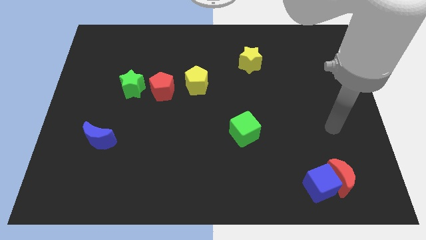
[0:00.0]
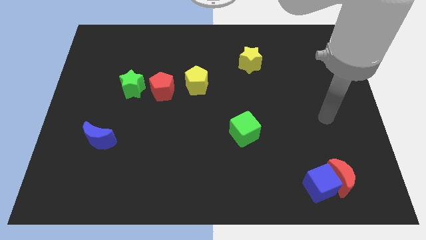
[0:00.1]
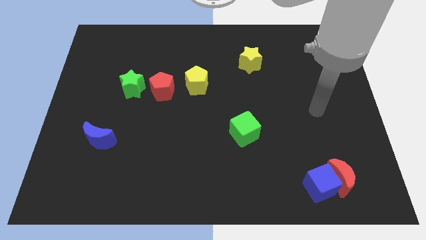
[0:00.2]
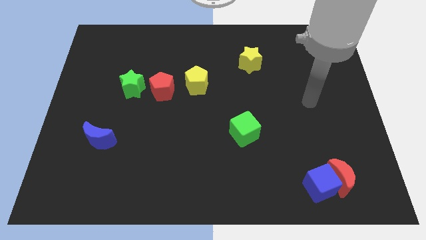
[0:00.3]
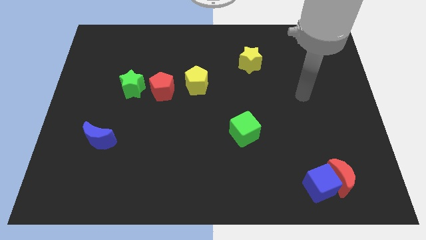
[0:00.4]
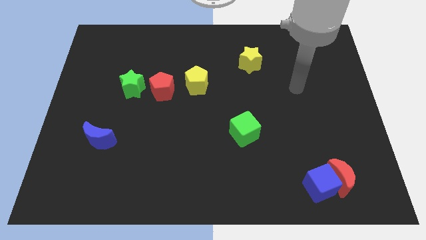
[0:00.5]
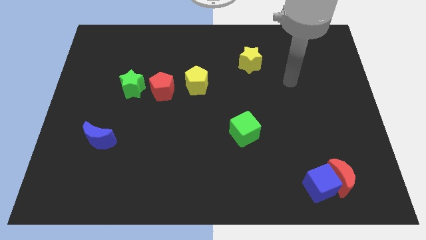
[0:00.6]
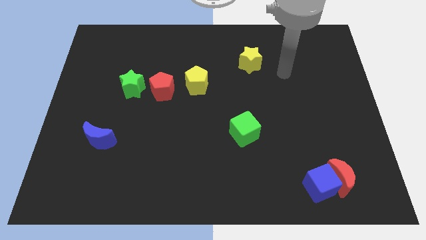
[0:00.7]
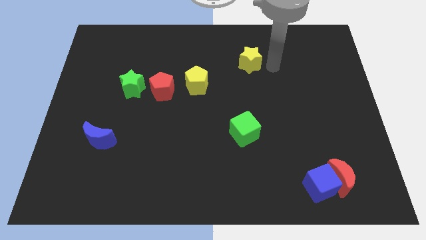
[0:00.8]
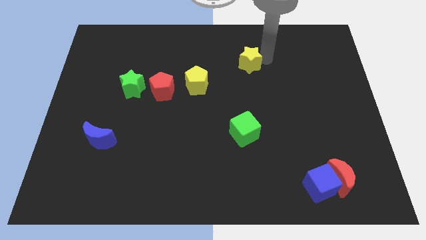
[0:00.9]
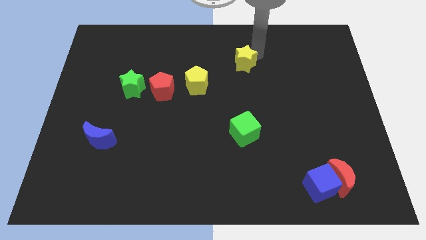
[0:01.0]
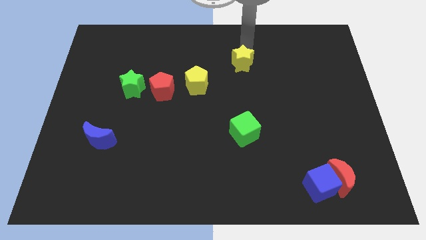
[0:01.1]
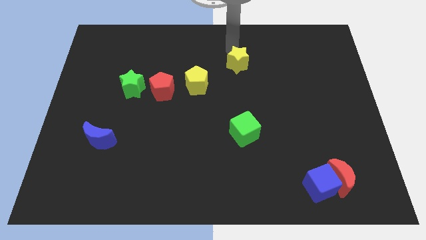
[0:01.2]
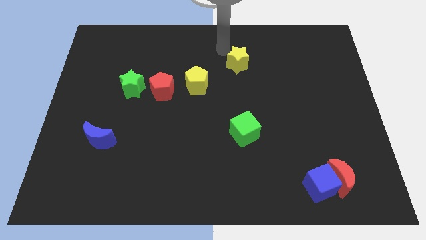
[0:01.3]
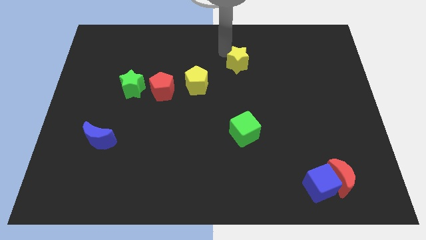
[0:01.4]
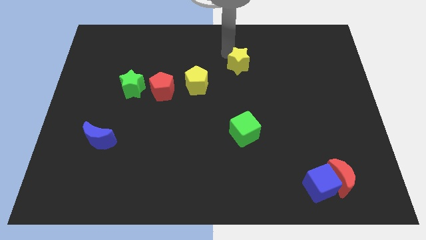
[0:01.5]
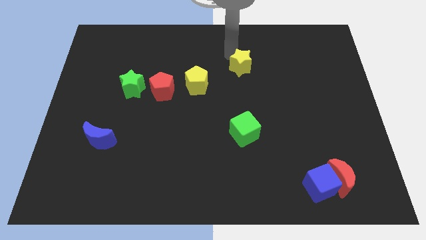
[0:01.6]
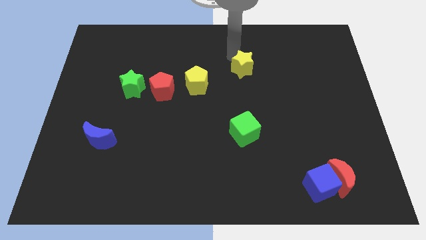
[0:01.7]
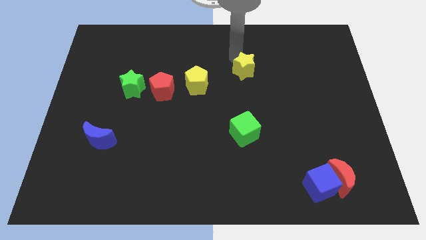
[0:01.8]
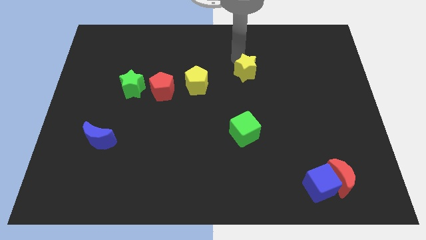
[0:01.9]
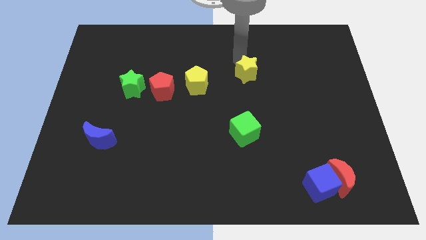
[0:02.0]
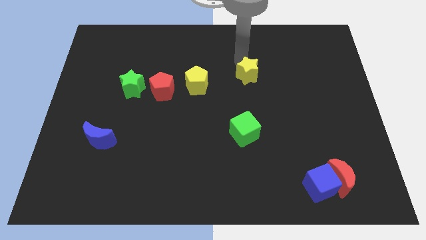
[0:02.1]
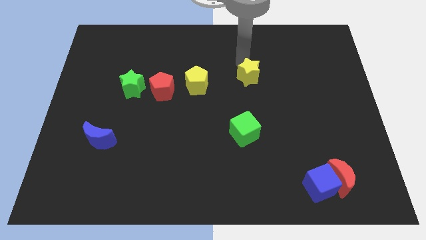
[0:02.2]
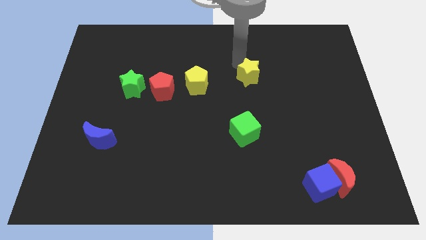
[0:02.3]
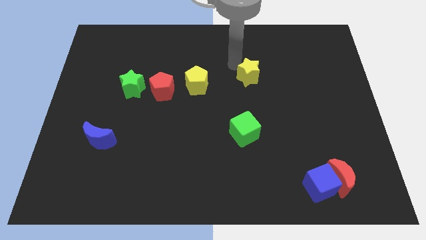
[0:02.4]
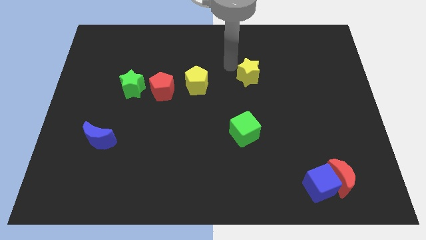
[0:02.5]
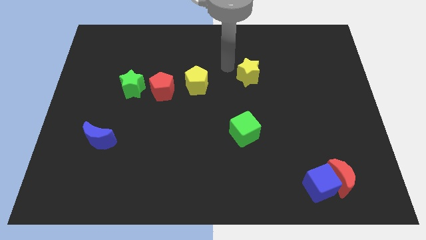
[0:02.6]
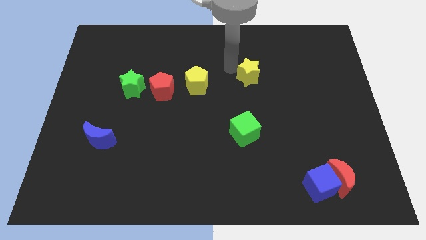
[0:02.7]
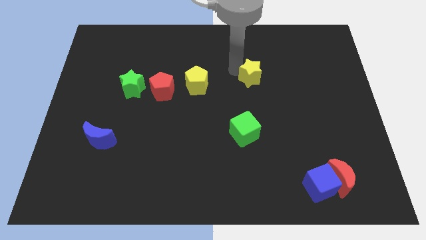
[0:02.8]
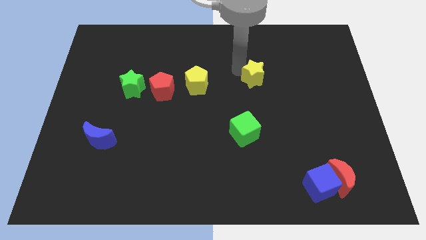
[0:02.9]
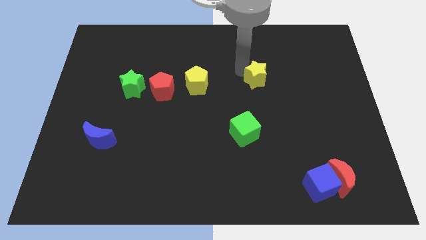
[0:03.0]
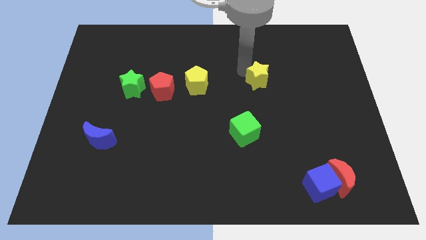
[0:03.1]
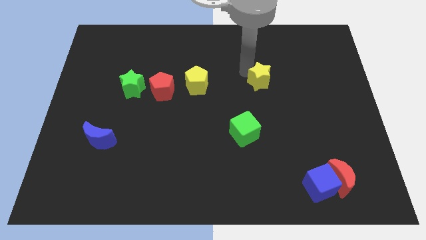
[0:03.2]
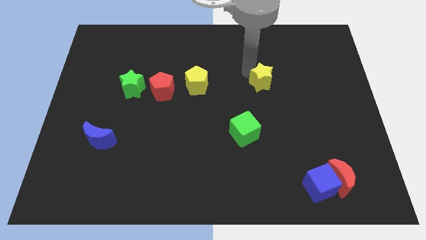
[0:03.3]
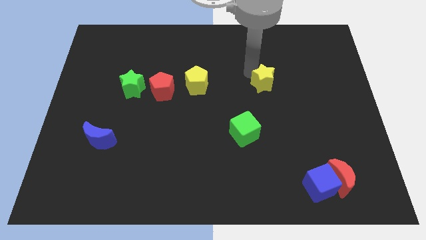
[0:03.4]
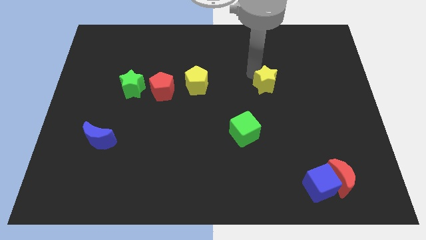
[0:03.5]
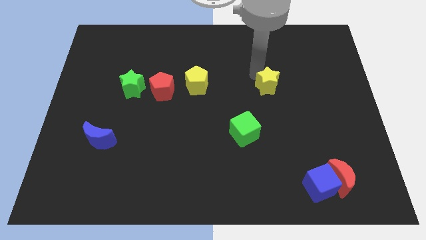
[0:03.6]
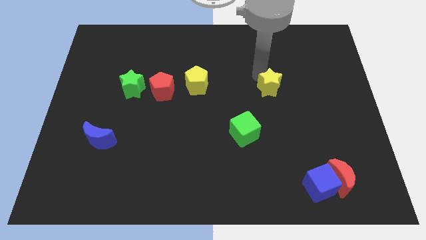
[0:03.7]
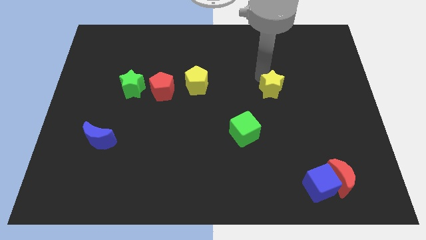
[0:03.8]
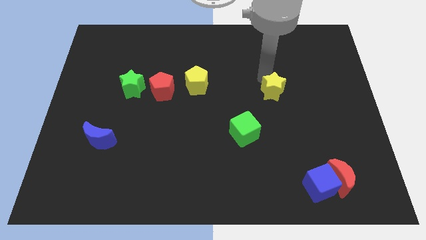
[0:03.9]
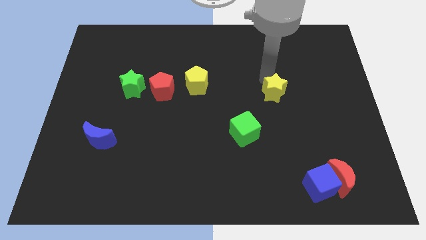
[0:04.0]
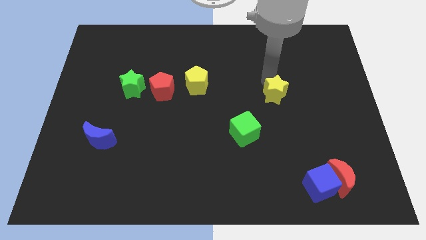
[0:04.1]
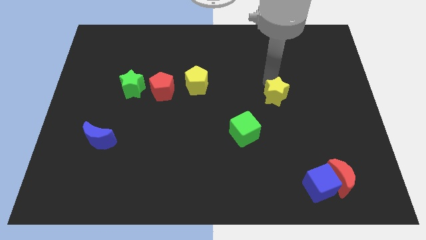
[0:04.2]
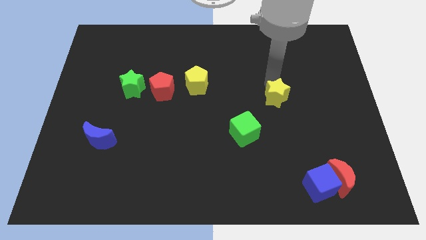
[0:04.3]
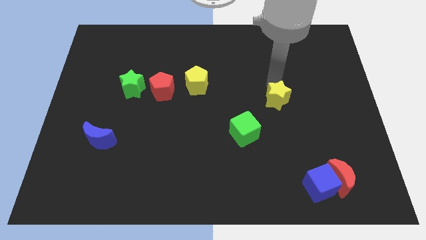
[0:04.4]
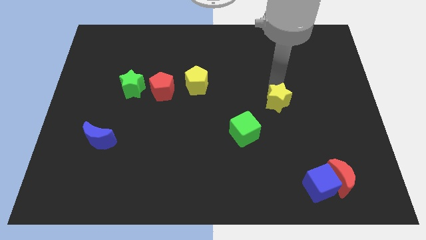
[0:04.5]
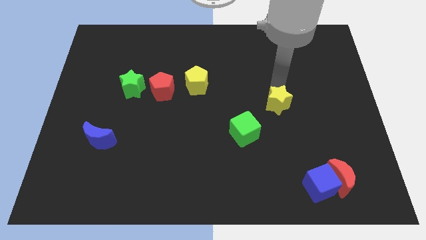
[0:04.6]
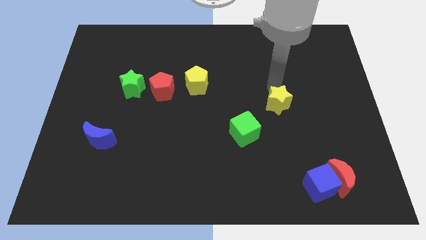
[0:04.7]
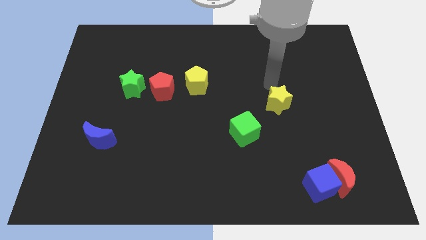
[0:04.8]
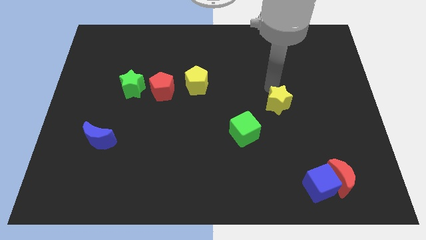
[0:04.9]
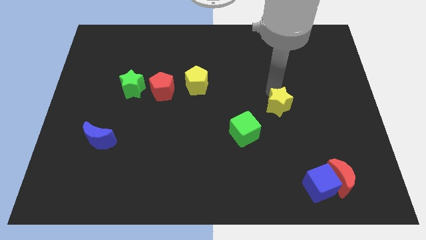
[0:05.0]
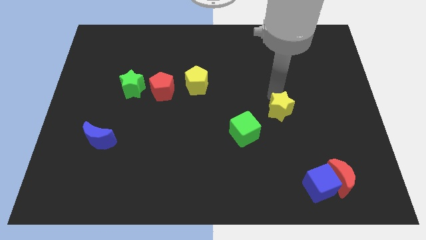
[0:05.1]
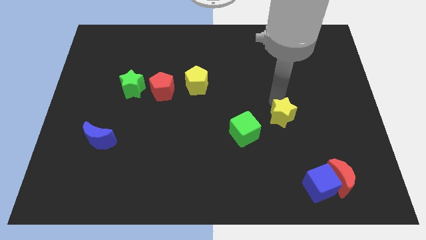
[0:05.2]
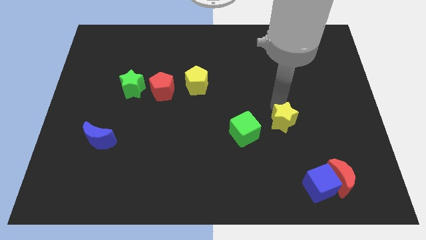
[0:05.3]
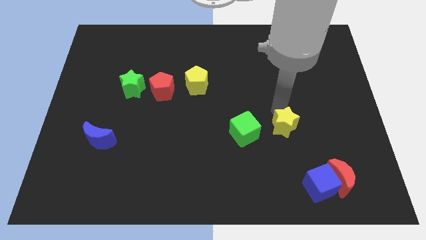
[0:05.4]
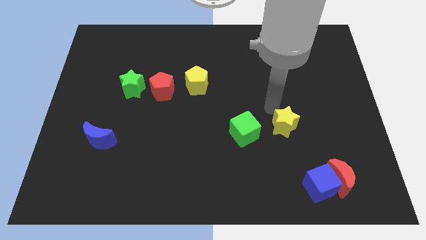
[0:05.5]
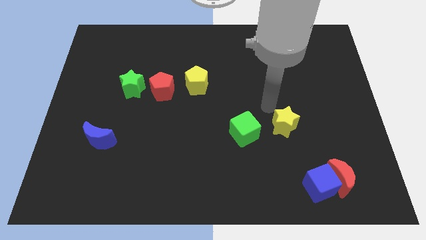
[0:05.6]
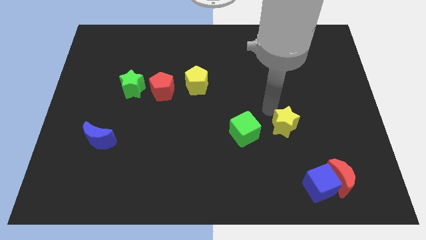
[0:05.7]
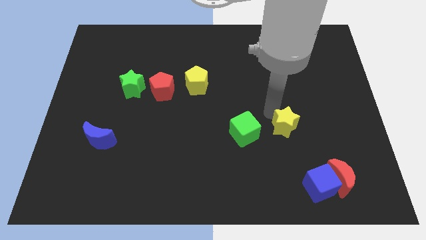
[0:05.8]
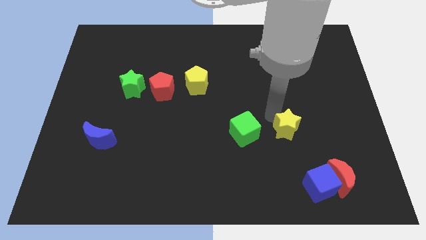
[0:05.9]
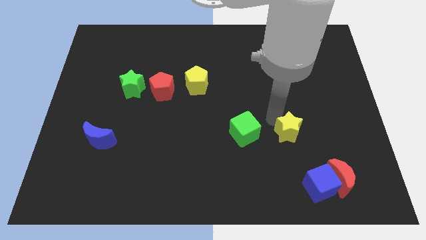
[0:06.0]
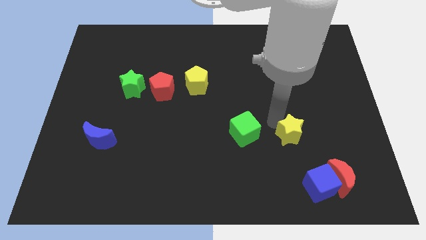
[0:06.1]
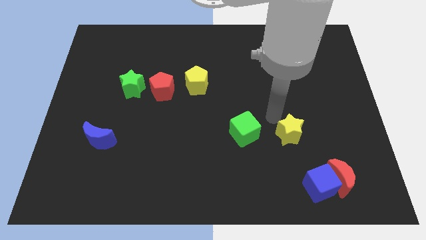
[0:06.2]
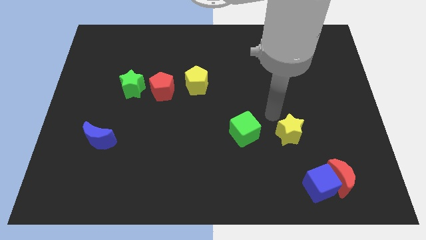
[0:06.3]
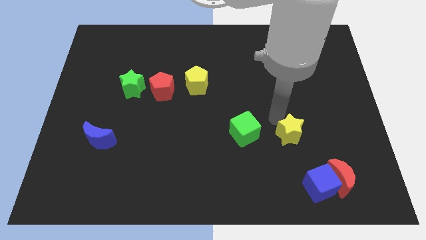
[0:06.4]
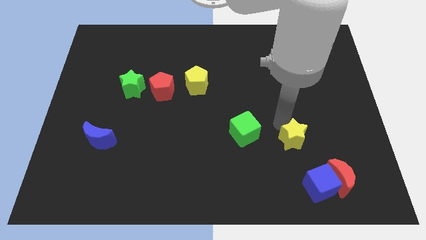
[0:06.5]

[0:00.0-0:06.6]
put the yellow star diagonally up and to the left of the red moon
